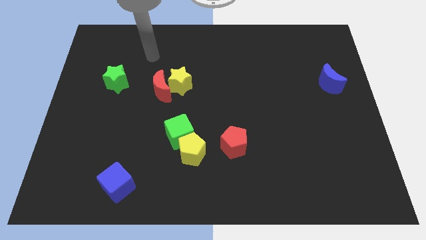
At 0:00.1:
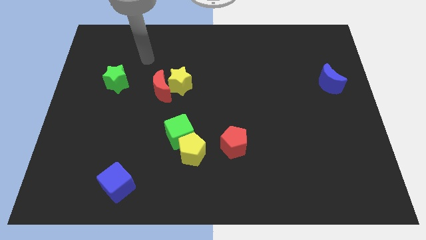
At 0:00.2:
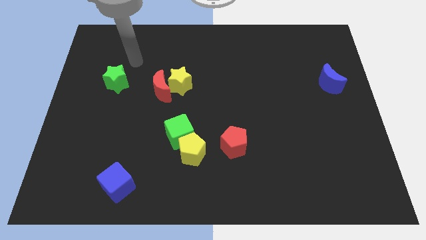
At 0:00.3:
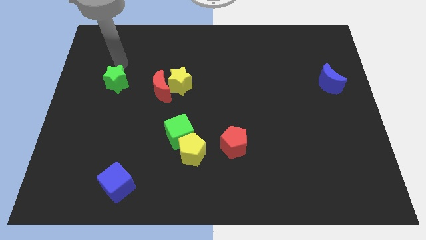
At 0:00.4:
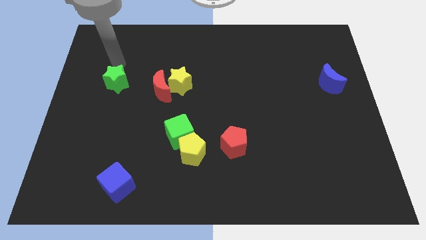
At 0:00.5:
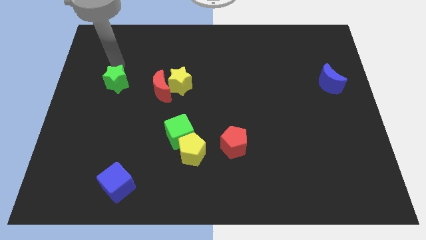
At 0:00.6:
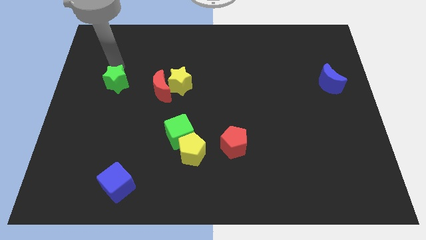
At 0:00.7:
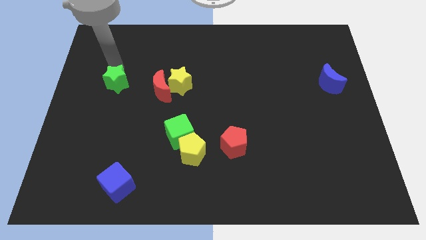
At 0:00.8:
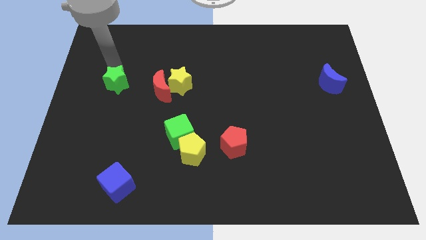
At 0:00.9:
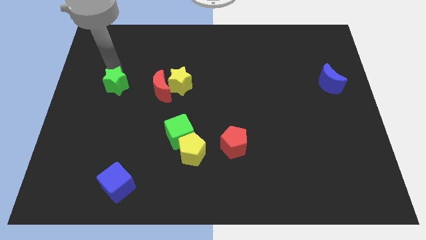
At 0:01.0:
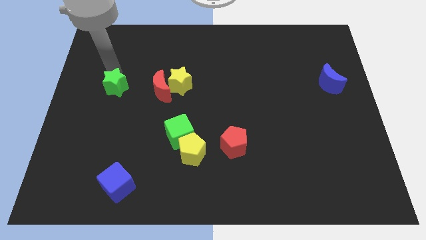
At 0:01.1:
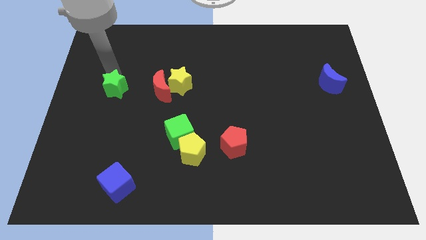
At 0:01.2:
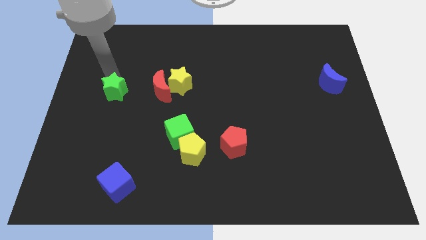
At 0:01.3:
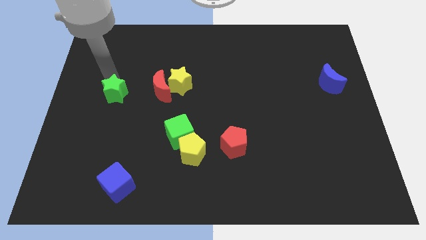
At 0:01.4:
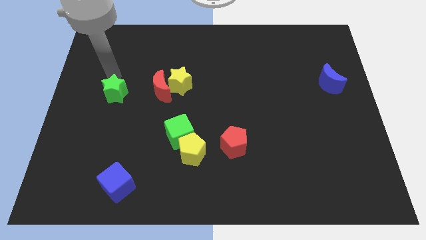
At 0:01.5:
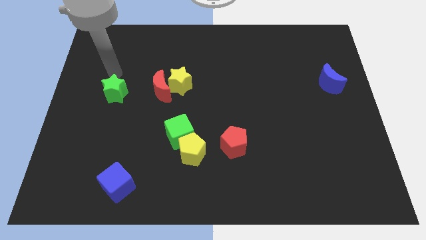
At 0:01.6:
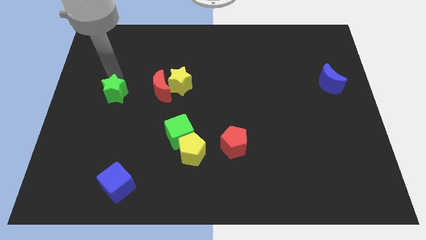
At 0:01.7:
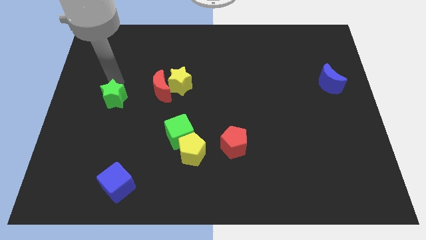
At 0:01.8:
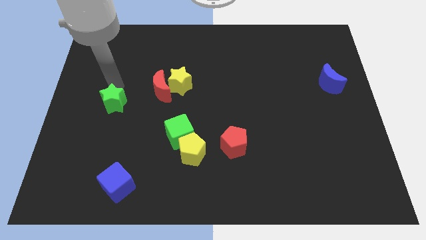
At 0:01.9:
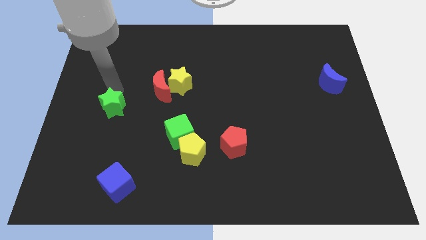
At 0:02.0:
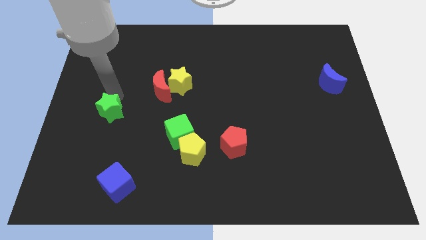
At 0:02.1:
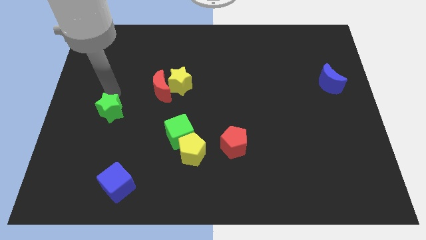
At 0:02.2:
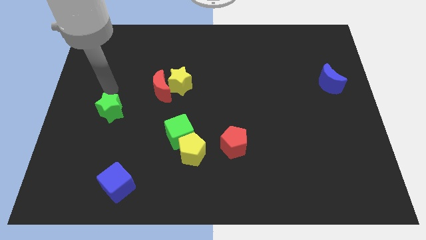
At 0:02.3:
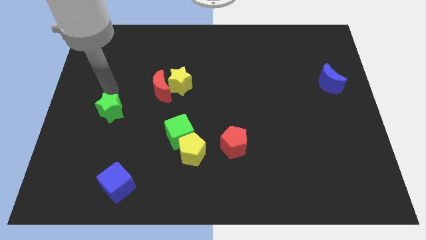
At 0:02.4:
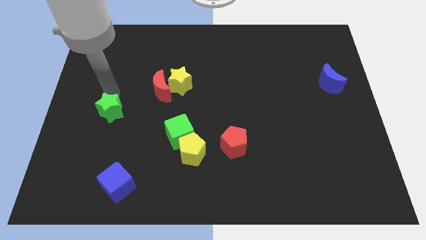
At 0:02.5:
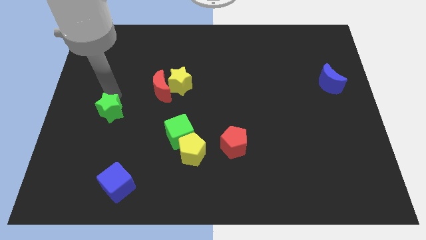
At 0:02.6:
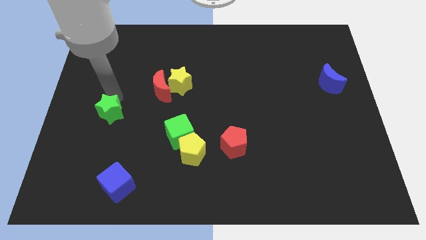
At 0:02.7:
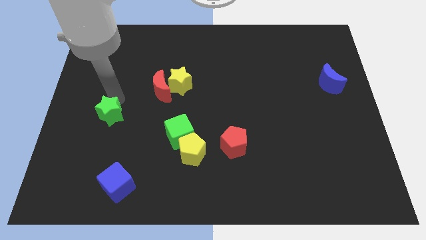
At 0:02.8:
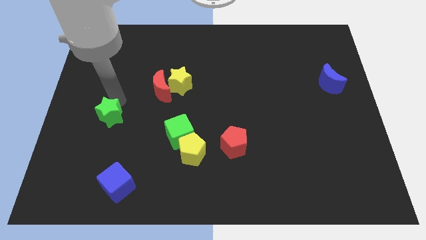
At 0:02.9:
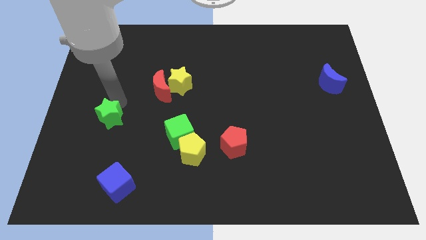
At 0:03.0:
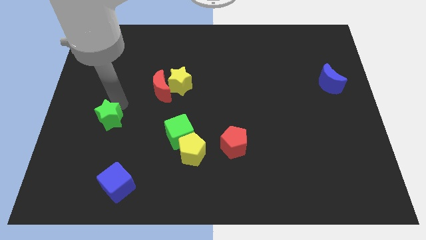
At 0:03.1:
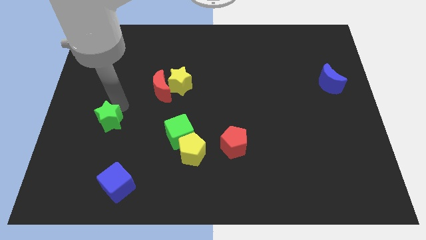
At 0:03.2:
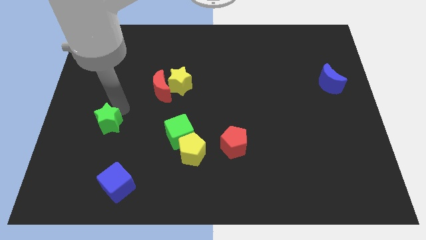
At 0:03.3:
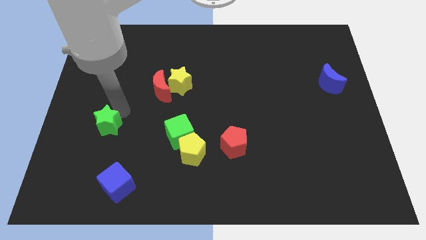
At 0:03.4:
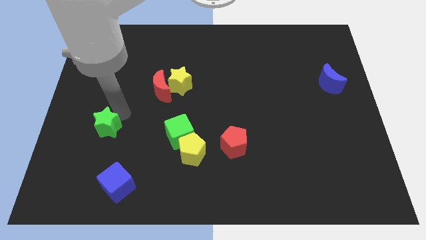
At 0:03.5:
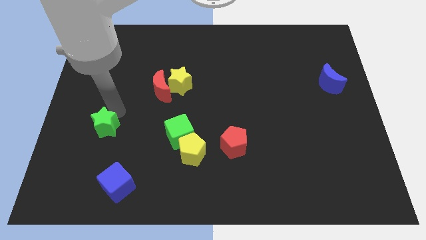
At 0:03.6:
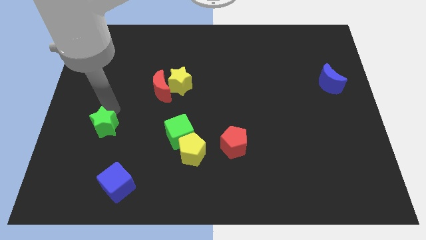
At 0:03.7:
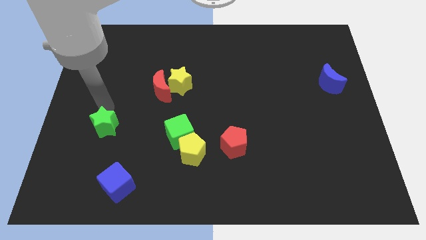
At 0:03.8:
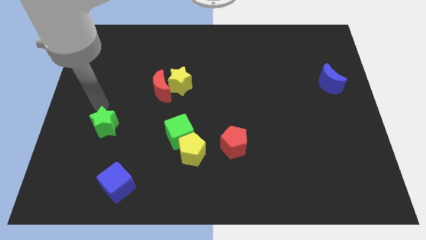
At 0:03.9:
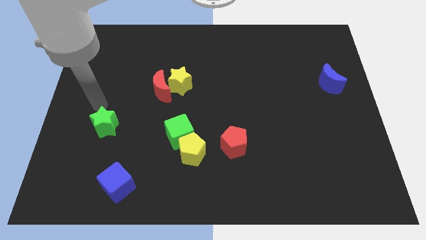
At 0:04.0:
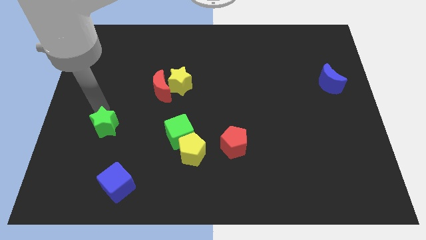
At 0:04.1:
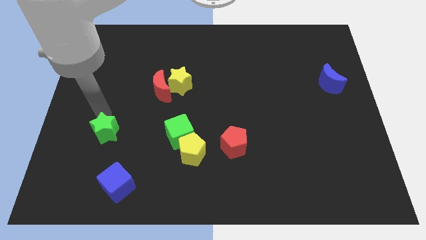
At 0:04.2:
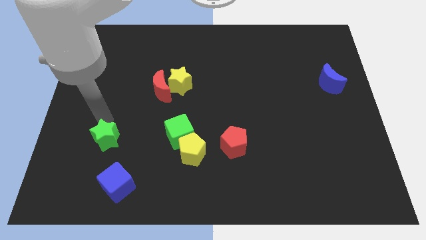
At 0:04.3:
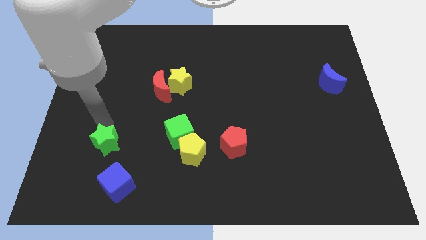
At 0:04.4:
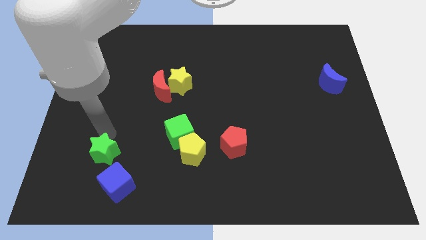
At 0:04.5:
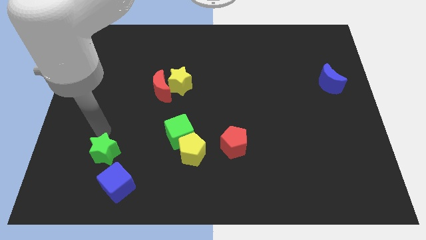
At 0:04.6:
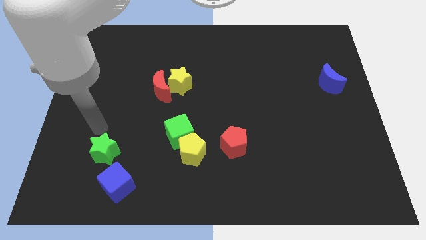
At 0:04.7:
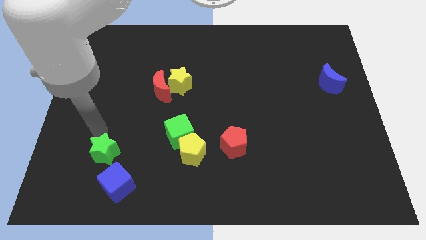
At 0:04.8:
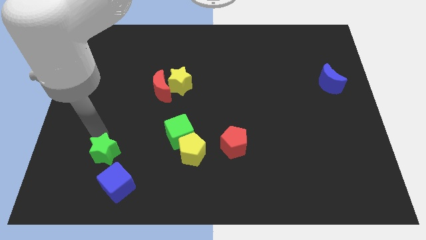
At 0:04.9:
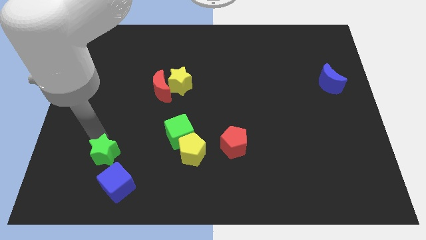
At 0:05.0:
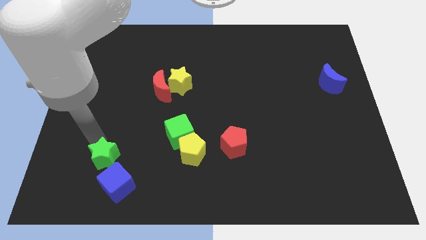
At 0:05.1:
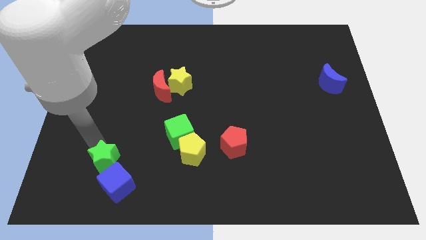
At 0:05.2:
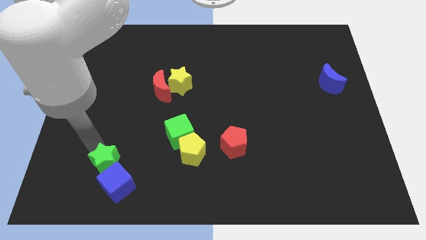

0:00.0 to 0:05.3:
slide the green star close to the blue cube
